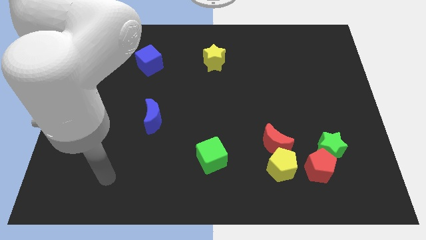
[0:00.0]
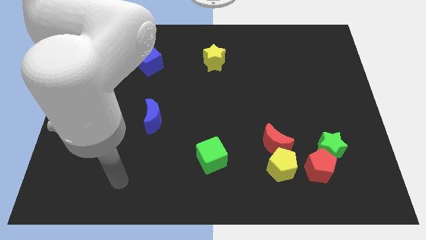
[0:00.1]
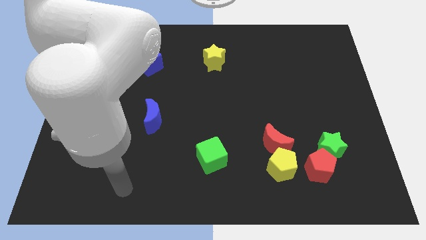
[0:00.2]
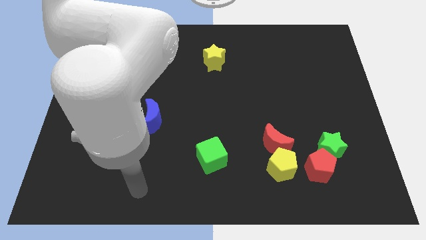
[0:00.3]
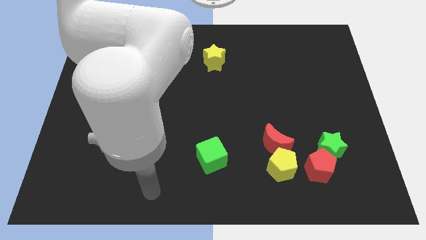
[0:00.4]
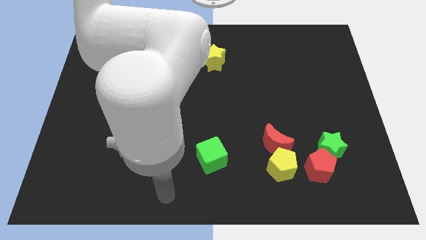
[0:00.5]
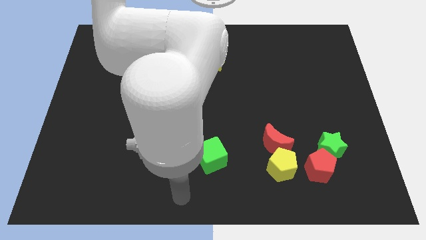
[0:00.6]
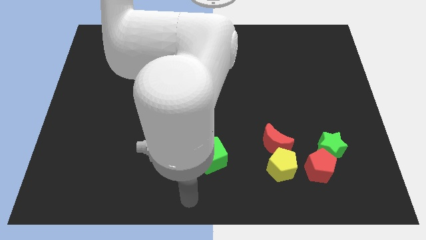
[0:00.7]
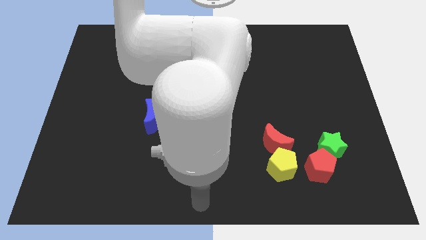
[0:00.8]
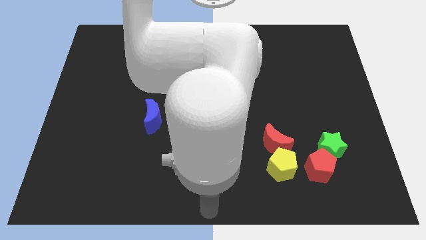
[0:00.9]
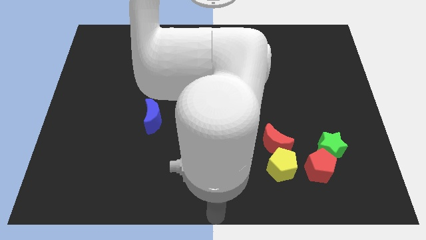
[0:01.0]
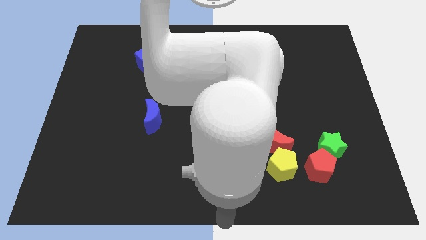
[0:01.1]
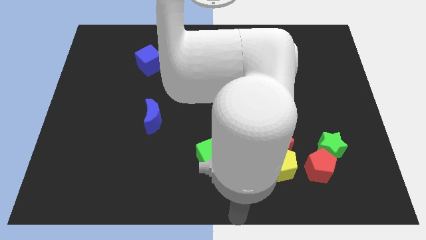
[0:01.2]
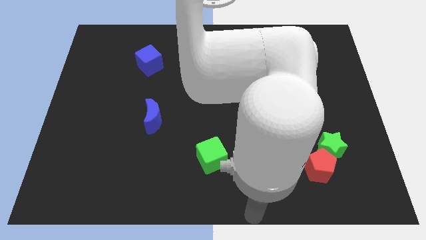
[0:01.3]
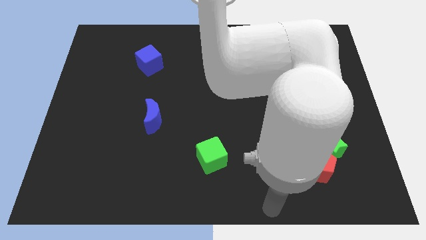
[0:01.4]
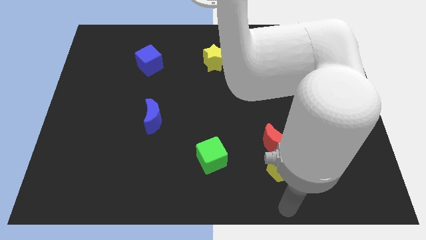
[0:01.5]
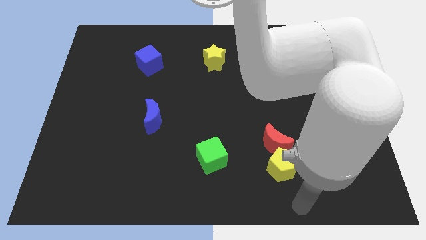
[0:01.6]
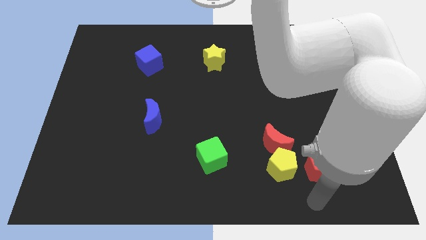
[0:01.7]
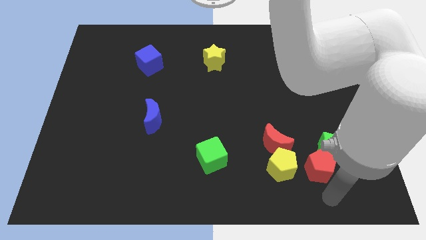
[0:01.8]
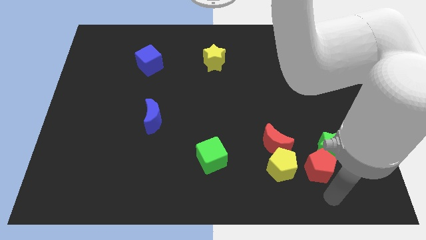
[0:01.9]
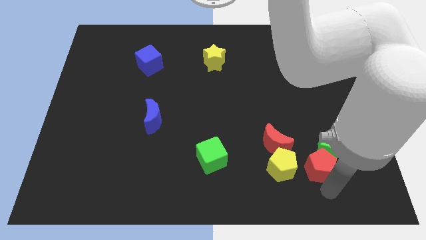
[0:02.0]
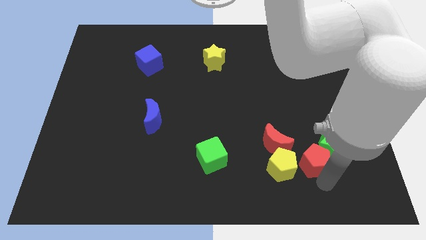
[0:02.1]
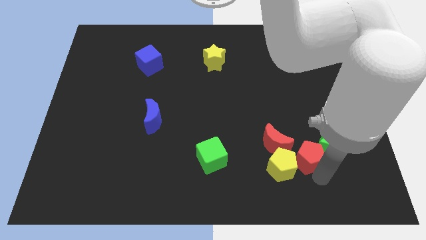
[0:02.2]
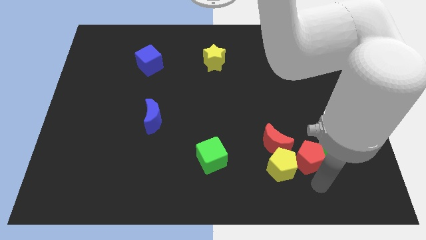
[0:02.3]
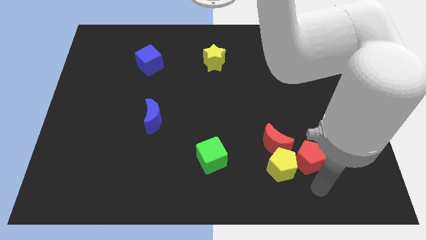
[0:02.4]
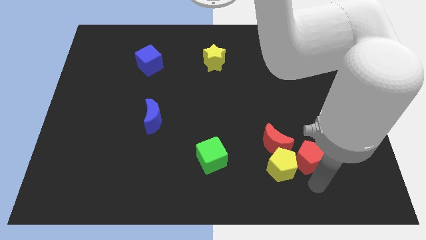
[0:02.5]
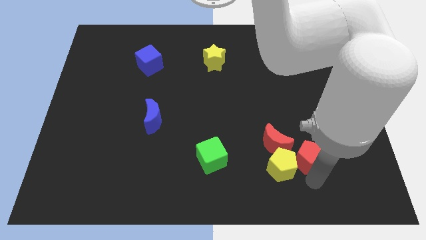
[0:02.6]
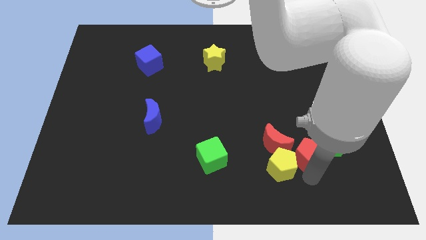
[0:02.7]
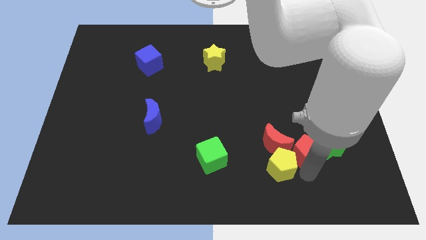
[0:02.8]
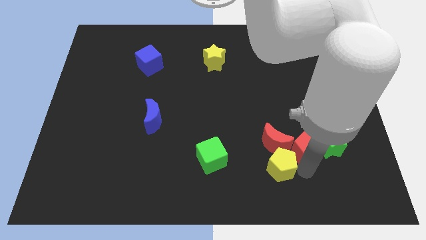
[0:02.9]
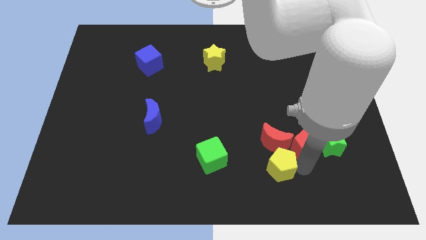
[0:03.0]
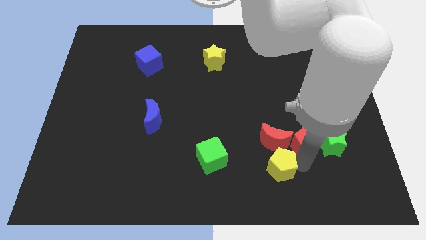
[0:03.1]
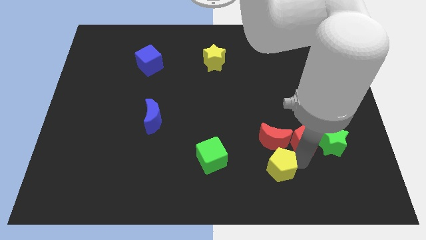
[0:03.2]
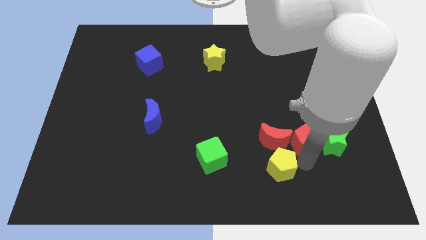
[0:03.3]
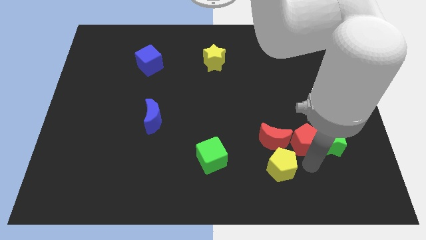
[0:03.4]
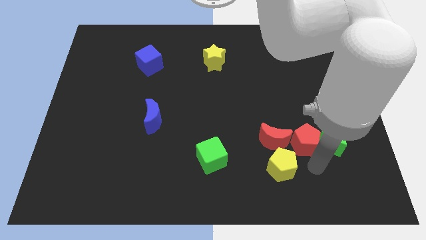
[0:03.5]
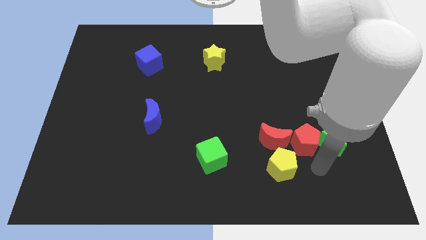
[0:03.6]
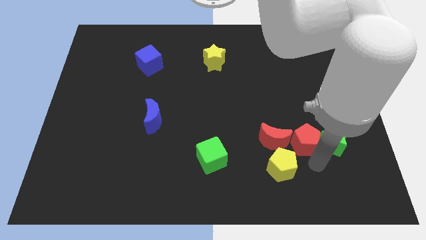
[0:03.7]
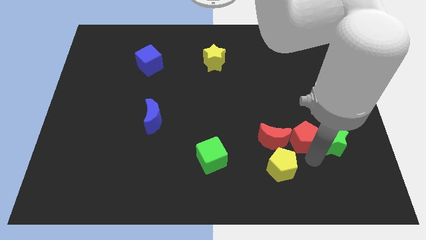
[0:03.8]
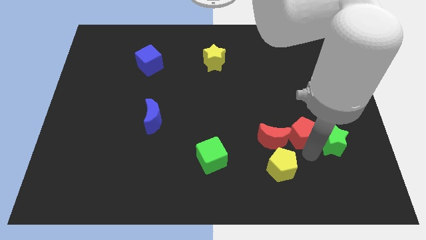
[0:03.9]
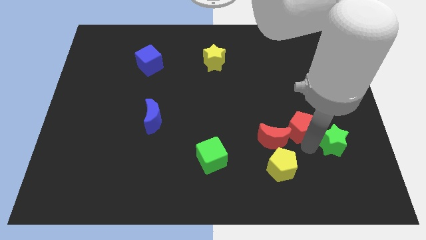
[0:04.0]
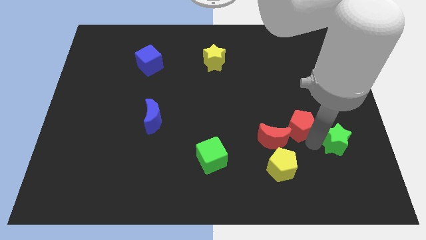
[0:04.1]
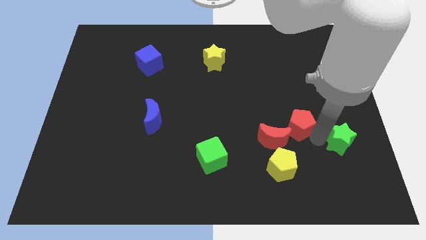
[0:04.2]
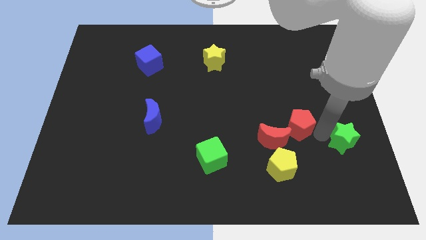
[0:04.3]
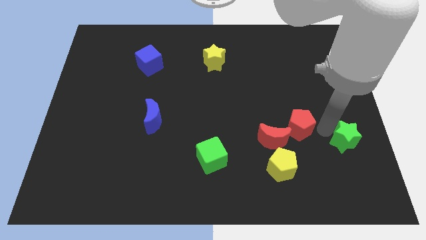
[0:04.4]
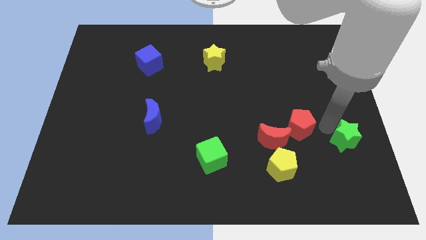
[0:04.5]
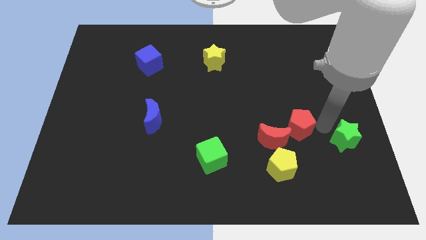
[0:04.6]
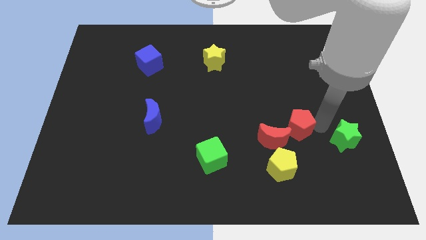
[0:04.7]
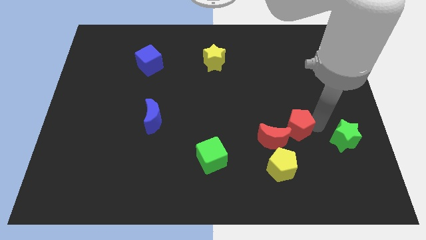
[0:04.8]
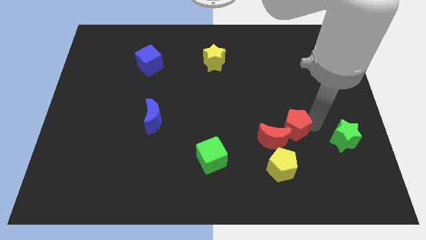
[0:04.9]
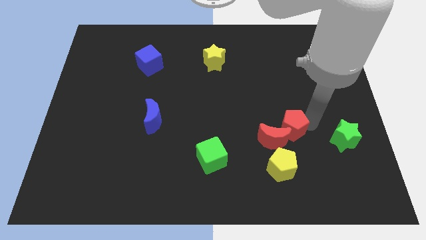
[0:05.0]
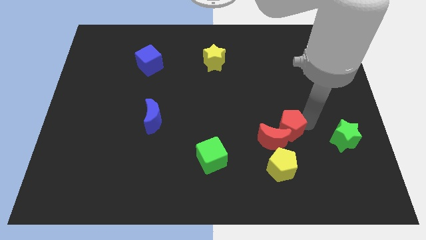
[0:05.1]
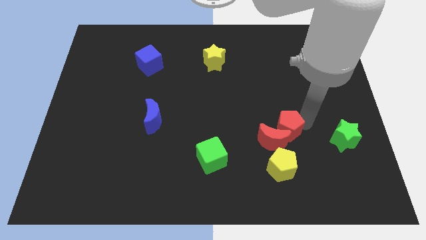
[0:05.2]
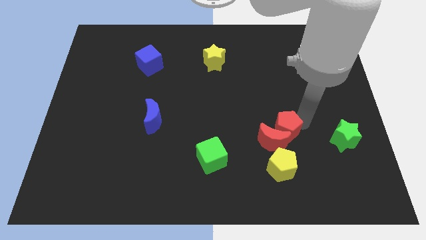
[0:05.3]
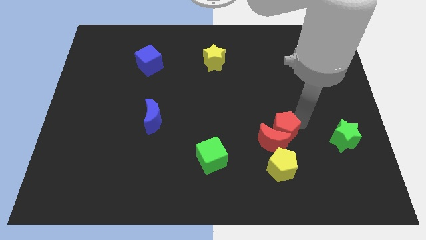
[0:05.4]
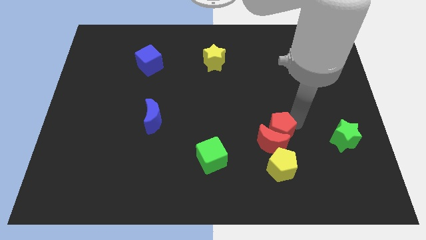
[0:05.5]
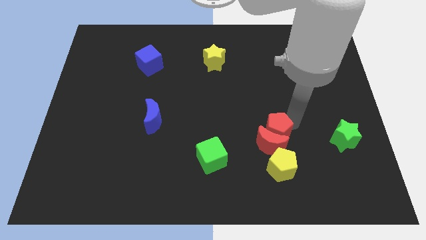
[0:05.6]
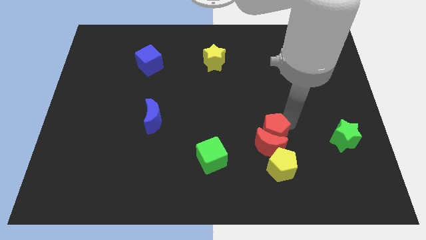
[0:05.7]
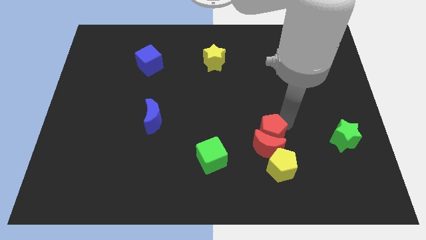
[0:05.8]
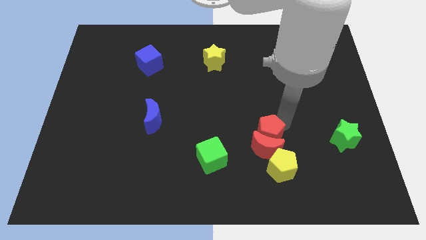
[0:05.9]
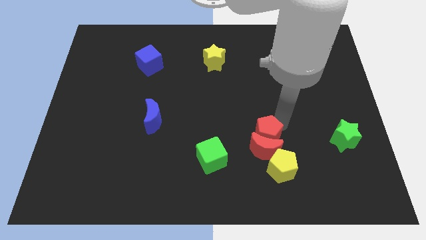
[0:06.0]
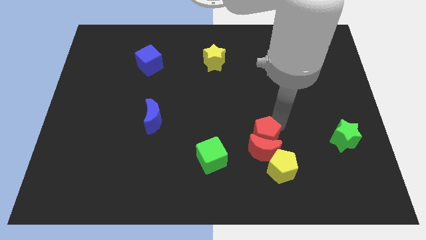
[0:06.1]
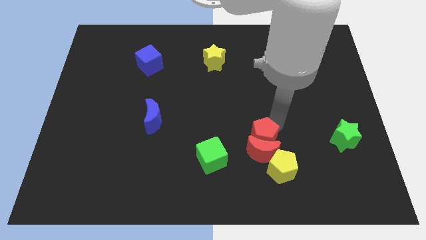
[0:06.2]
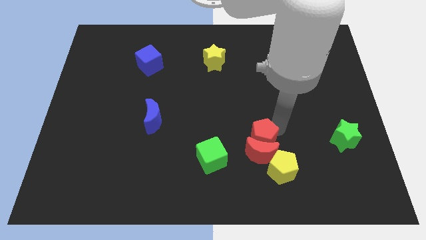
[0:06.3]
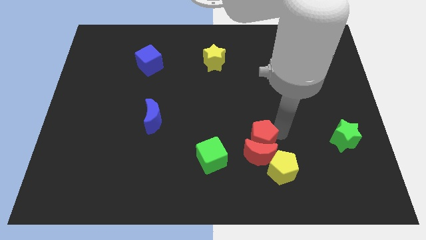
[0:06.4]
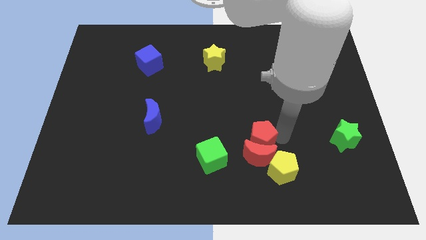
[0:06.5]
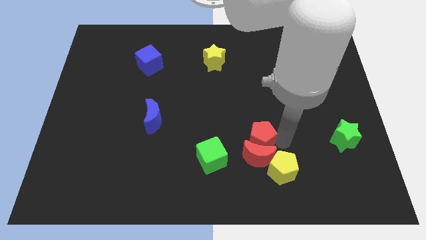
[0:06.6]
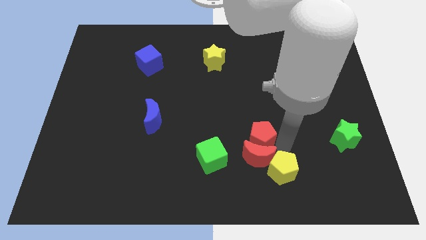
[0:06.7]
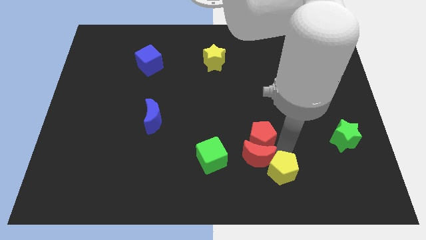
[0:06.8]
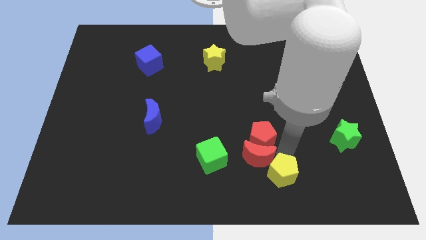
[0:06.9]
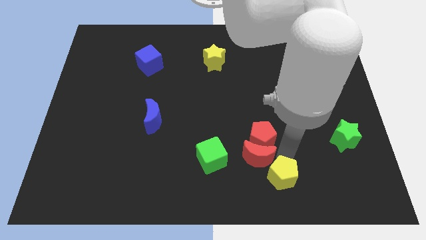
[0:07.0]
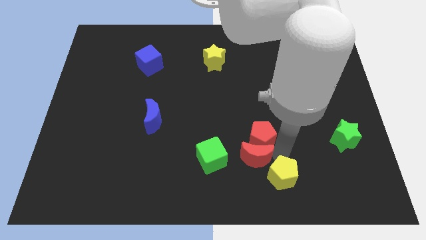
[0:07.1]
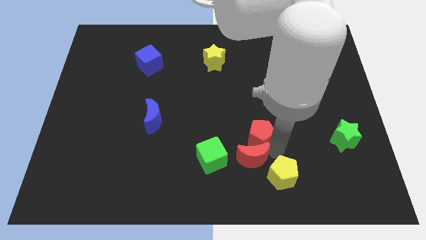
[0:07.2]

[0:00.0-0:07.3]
put the red pentagon diagonally up and to the right of the green cube
